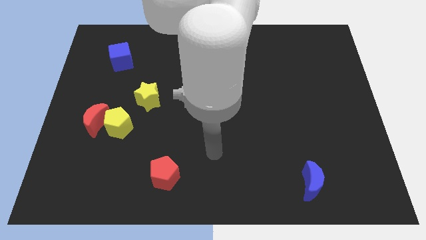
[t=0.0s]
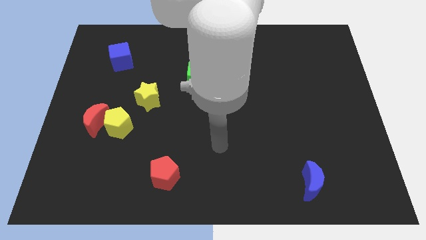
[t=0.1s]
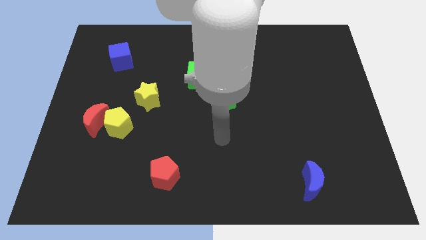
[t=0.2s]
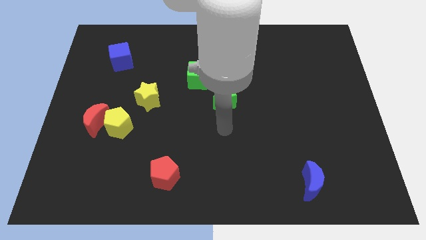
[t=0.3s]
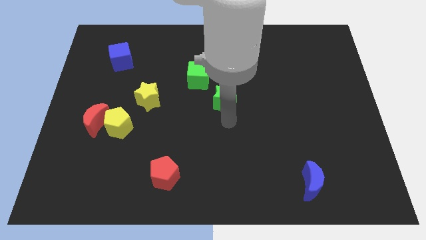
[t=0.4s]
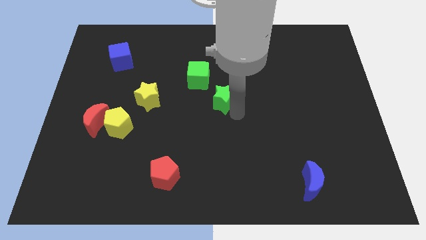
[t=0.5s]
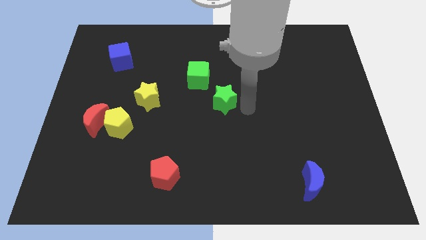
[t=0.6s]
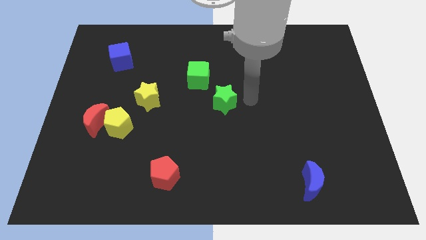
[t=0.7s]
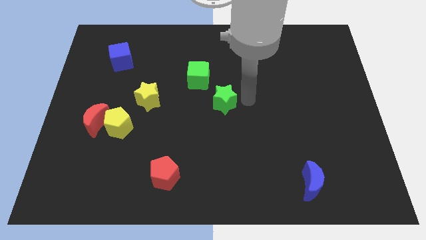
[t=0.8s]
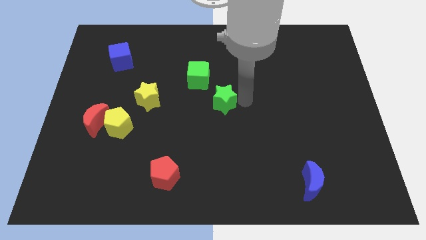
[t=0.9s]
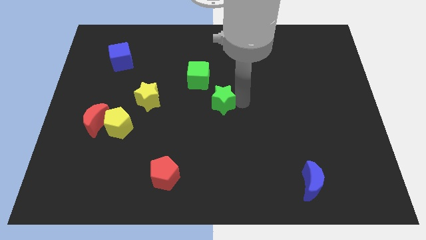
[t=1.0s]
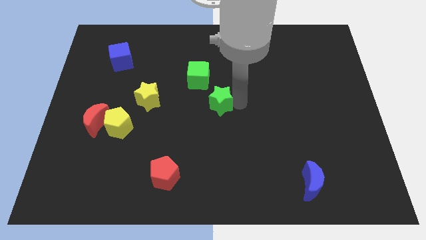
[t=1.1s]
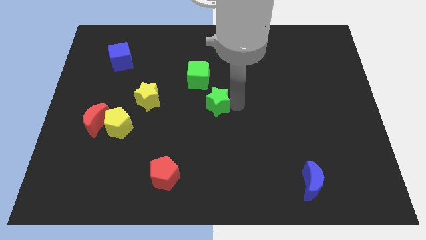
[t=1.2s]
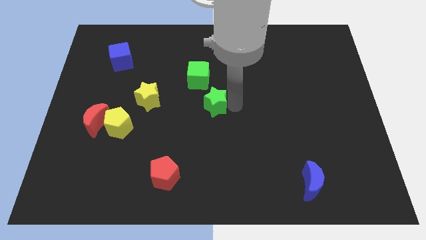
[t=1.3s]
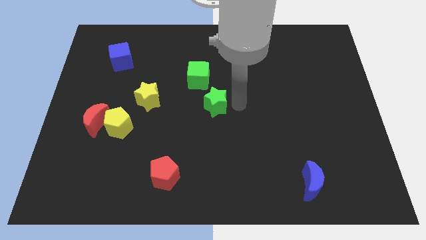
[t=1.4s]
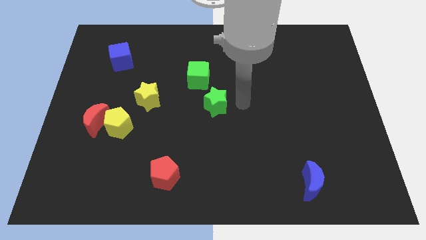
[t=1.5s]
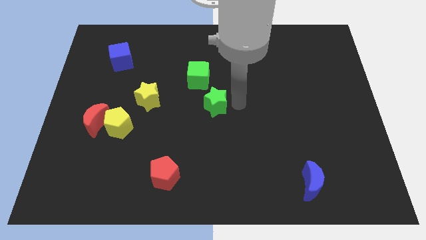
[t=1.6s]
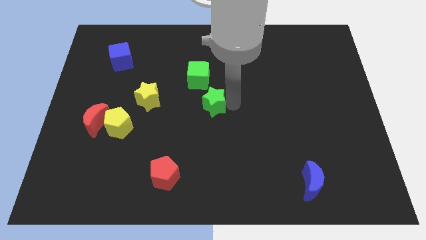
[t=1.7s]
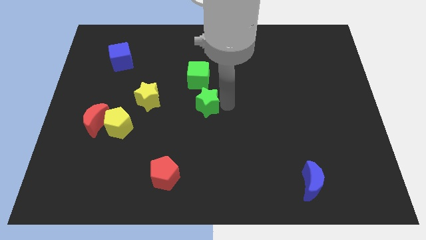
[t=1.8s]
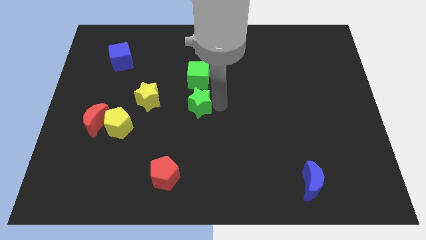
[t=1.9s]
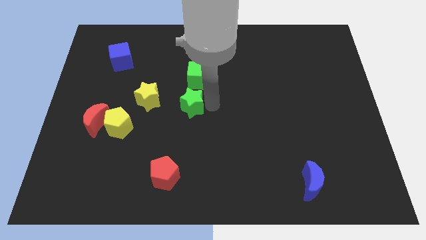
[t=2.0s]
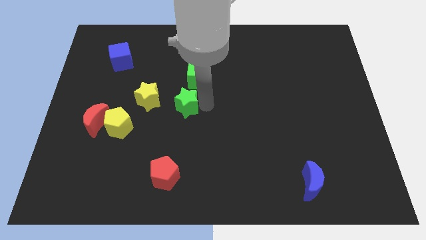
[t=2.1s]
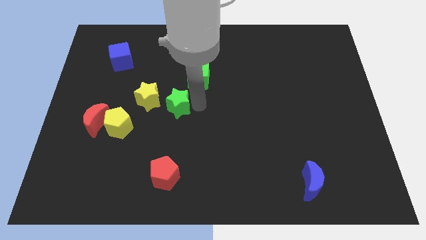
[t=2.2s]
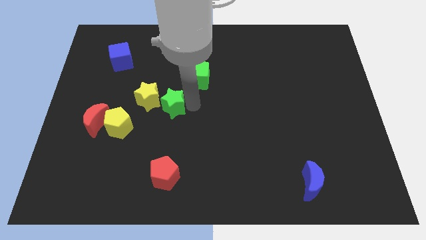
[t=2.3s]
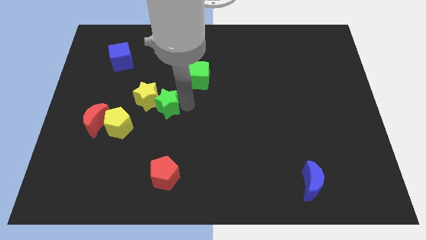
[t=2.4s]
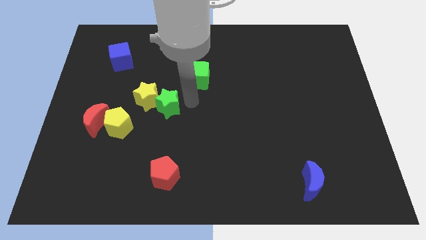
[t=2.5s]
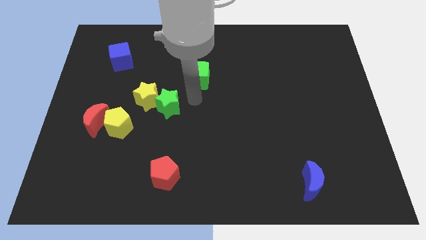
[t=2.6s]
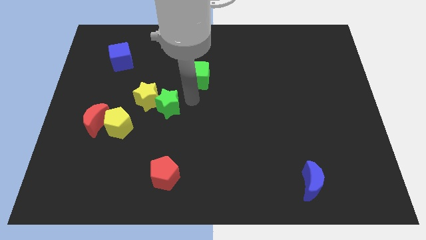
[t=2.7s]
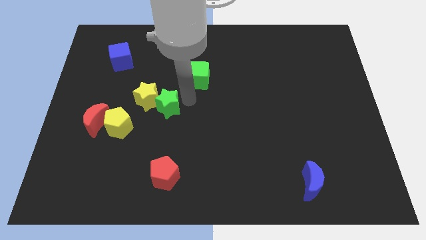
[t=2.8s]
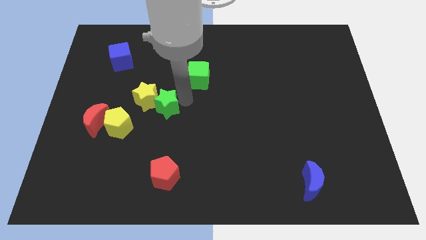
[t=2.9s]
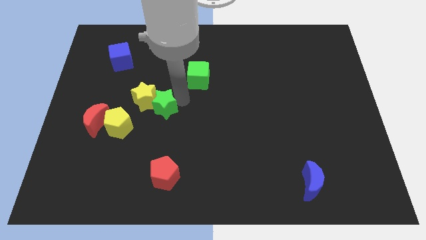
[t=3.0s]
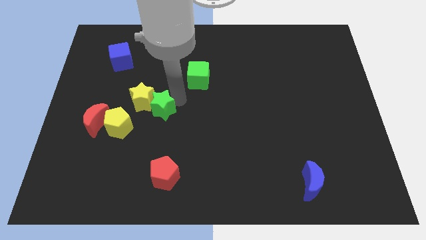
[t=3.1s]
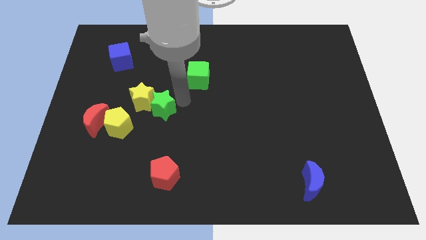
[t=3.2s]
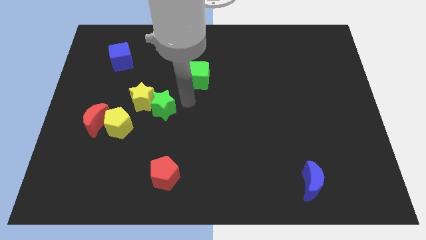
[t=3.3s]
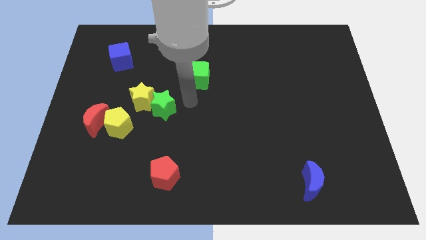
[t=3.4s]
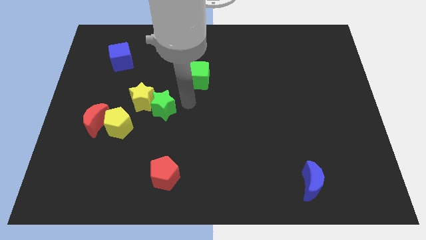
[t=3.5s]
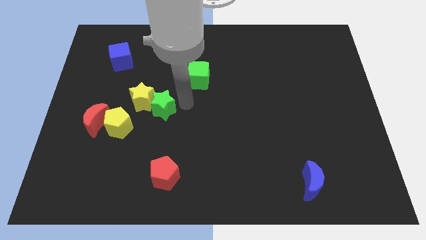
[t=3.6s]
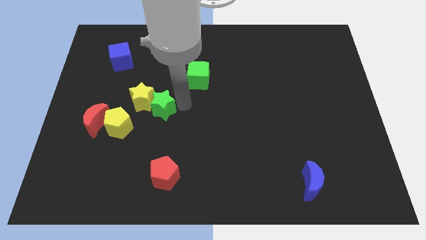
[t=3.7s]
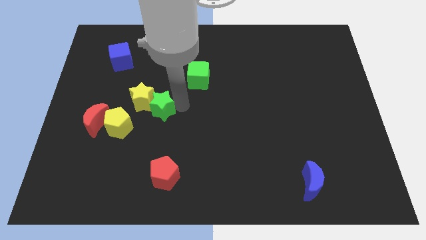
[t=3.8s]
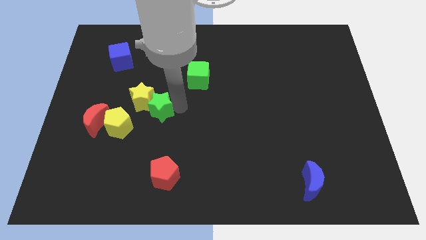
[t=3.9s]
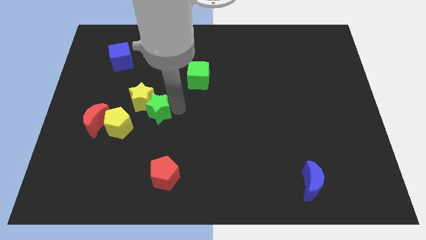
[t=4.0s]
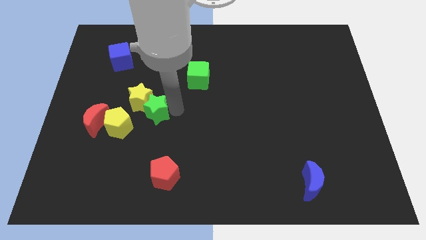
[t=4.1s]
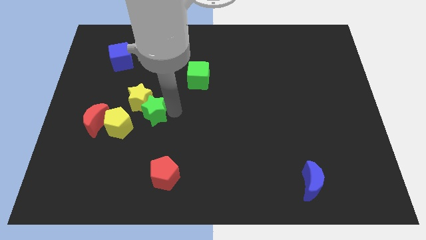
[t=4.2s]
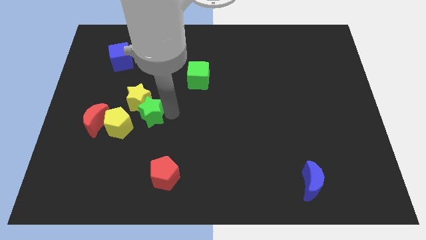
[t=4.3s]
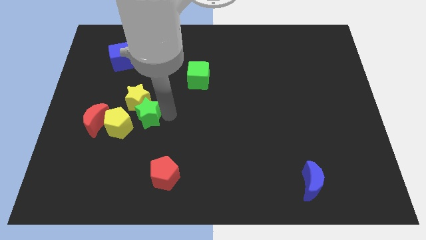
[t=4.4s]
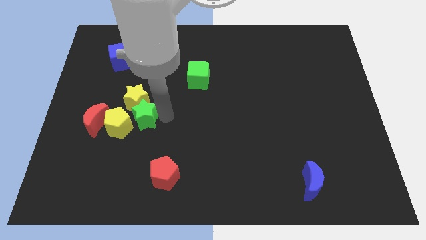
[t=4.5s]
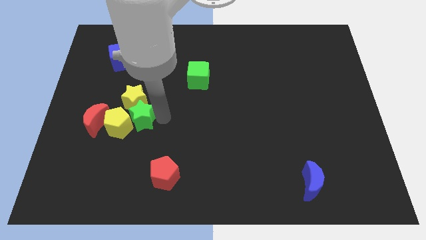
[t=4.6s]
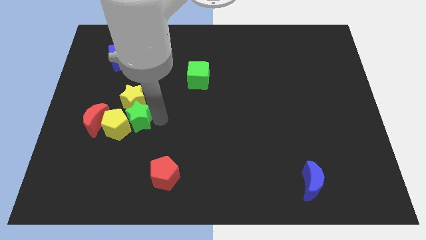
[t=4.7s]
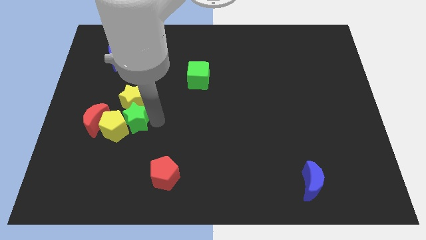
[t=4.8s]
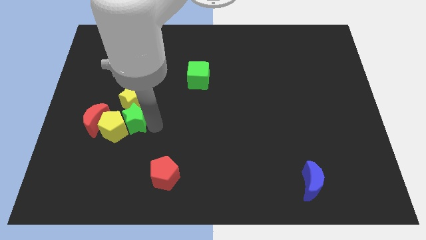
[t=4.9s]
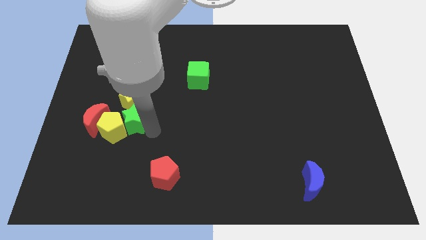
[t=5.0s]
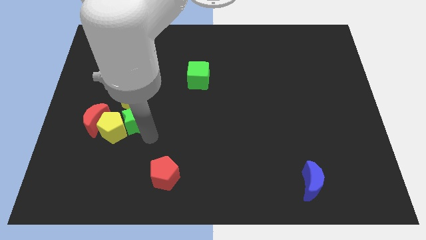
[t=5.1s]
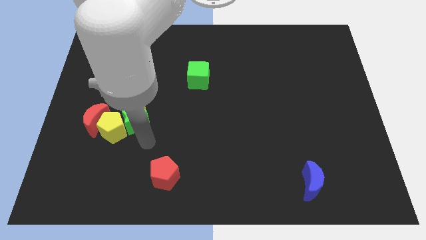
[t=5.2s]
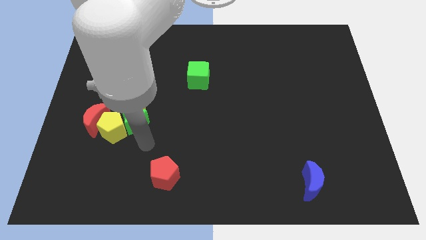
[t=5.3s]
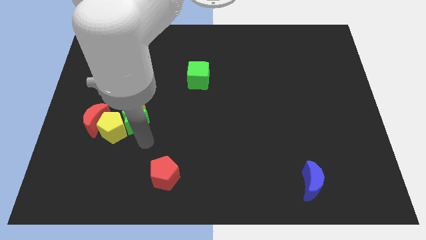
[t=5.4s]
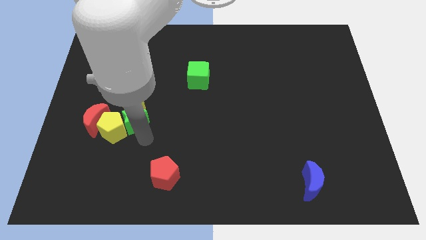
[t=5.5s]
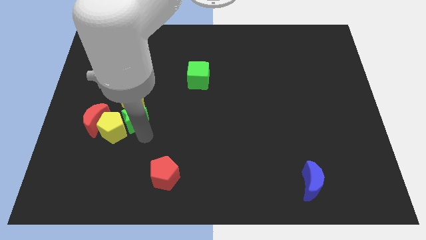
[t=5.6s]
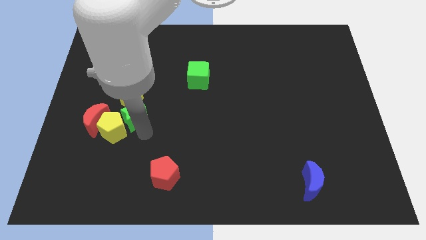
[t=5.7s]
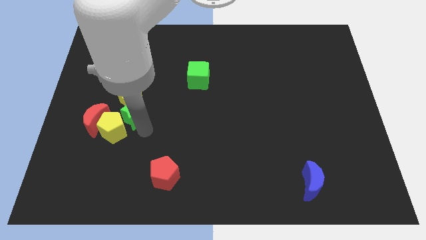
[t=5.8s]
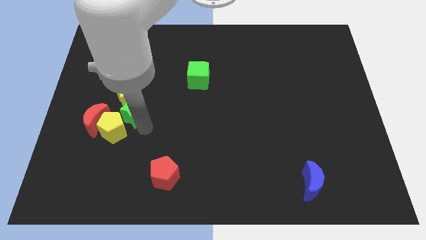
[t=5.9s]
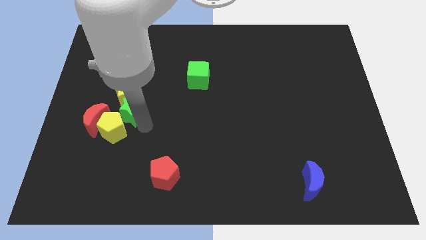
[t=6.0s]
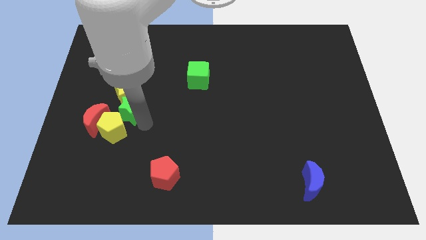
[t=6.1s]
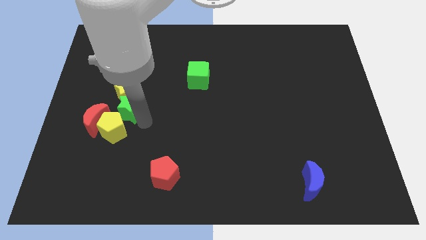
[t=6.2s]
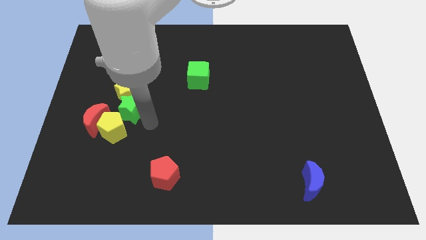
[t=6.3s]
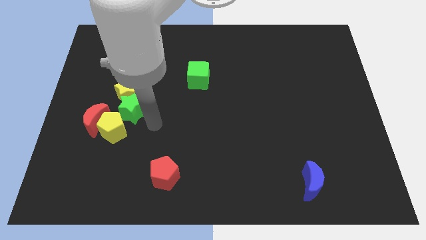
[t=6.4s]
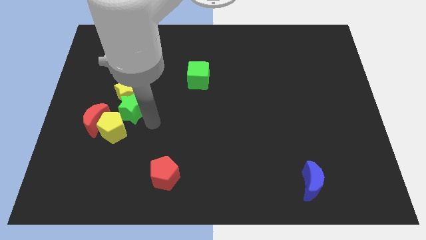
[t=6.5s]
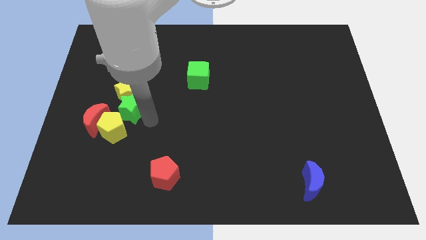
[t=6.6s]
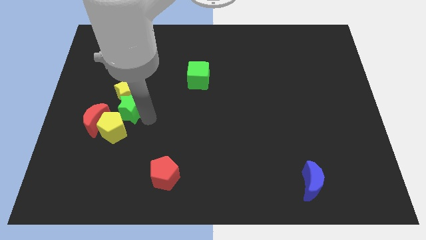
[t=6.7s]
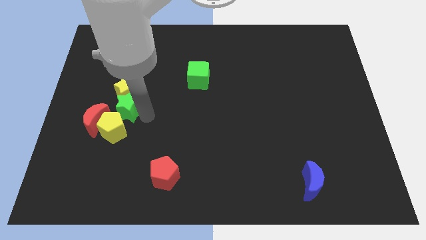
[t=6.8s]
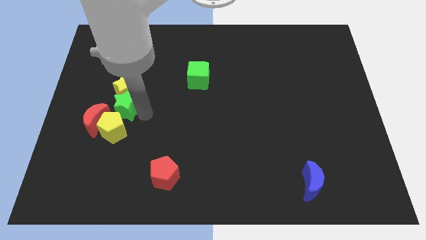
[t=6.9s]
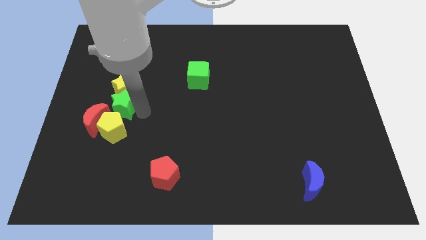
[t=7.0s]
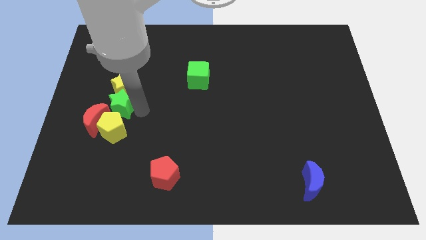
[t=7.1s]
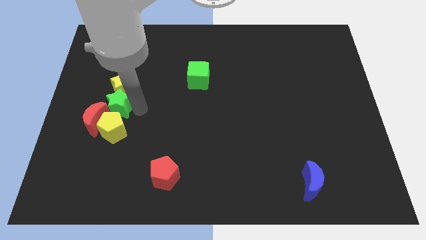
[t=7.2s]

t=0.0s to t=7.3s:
slide the green star to the red moon
